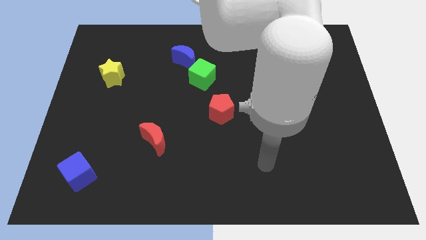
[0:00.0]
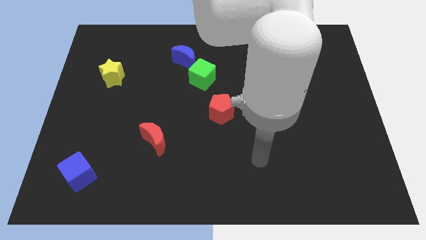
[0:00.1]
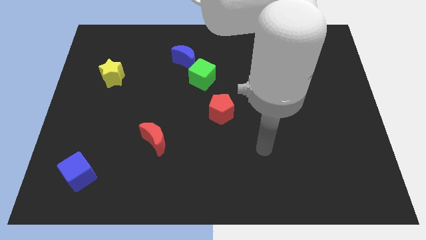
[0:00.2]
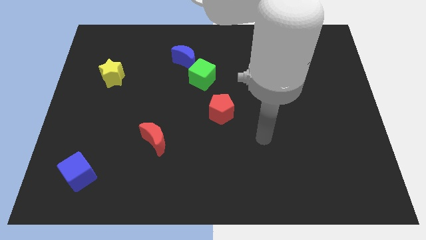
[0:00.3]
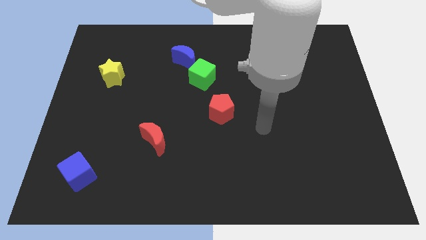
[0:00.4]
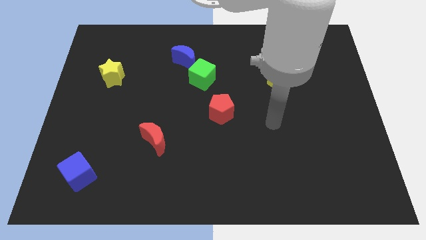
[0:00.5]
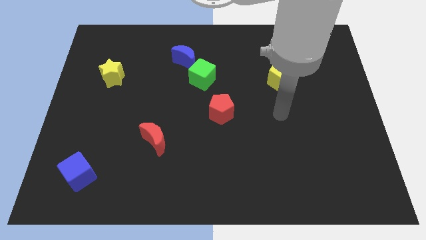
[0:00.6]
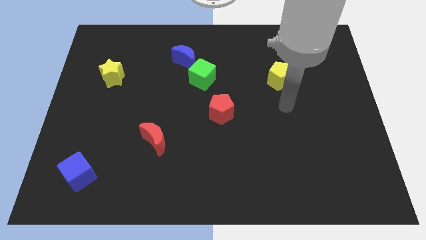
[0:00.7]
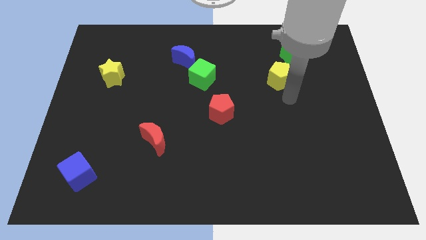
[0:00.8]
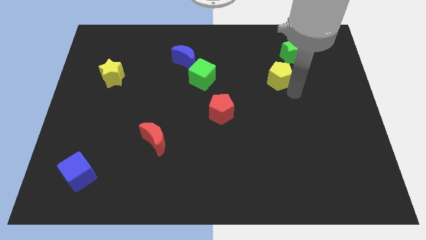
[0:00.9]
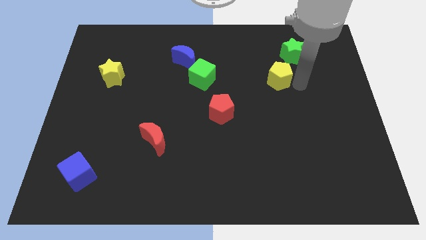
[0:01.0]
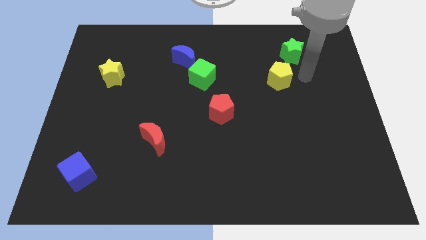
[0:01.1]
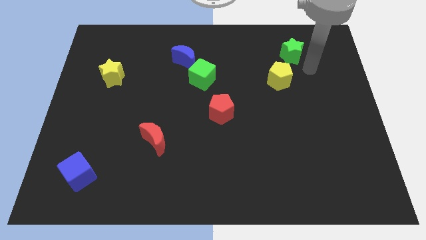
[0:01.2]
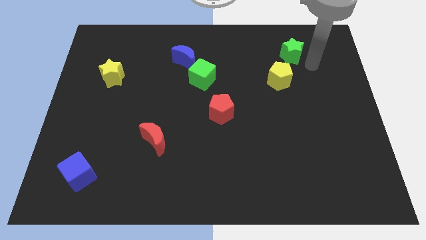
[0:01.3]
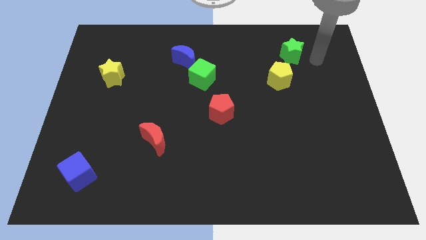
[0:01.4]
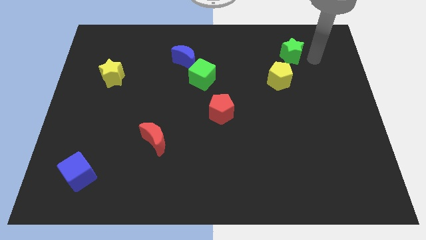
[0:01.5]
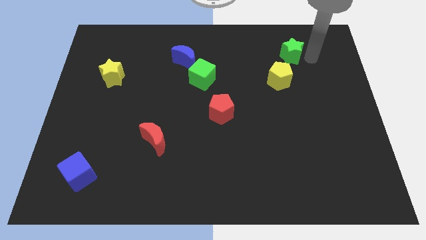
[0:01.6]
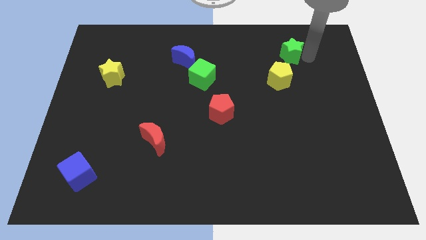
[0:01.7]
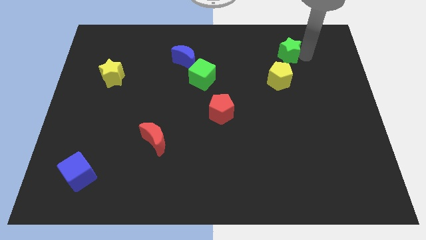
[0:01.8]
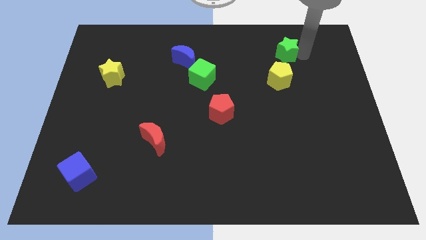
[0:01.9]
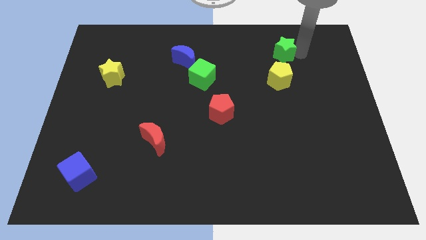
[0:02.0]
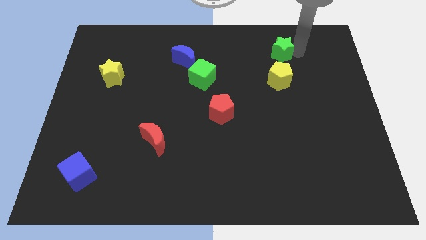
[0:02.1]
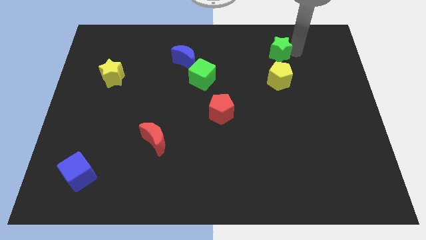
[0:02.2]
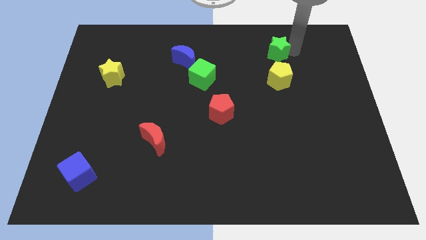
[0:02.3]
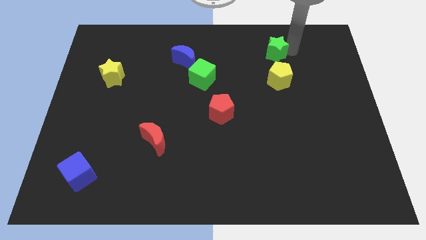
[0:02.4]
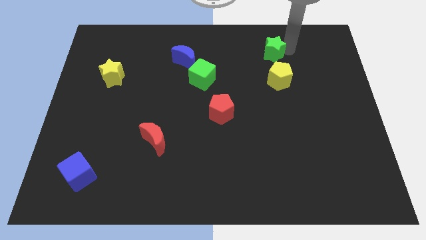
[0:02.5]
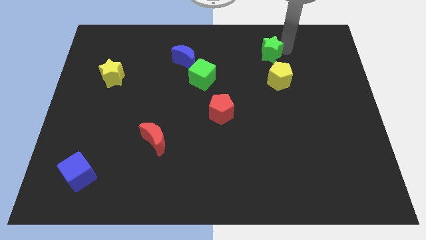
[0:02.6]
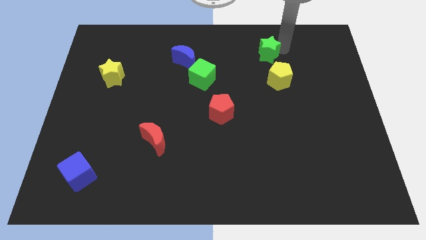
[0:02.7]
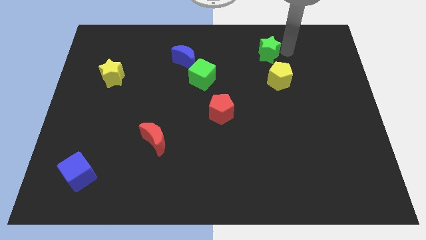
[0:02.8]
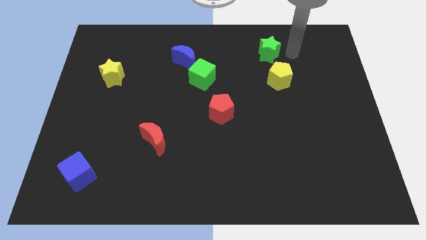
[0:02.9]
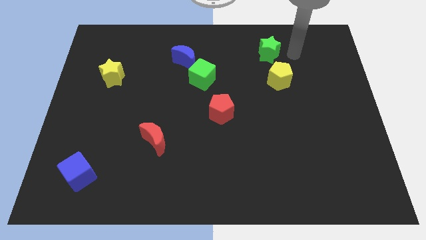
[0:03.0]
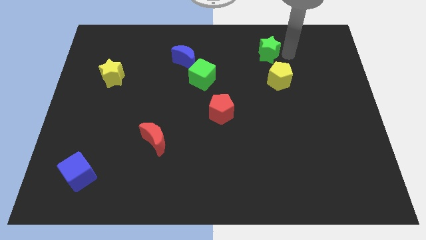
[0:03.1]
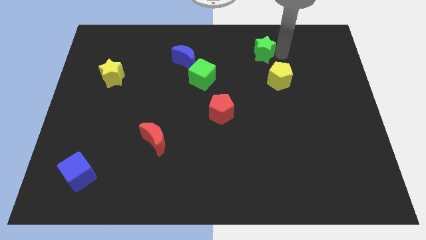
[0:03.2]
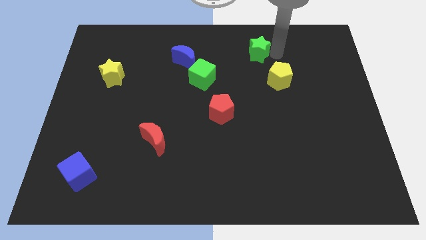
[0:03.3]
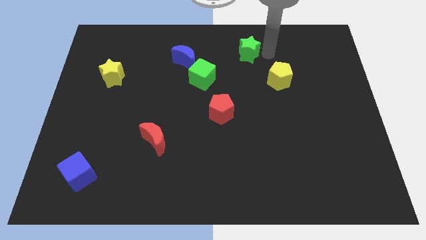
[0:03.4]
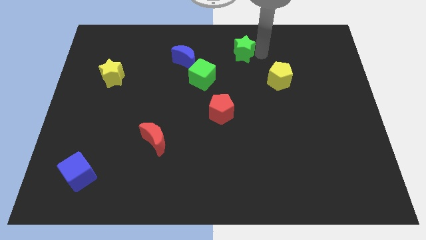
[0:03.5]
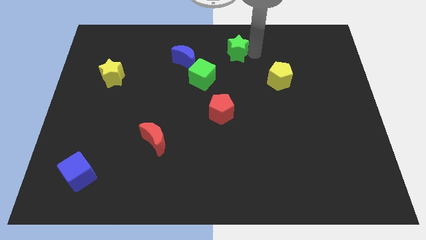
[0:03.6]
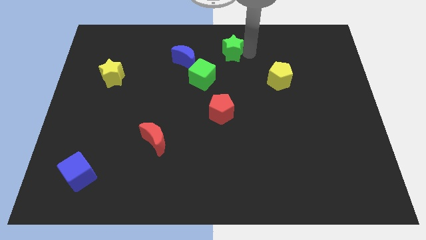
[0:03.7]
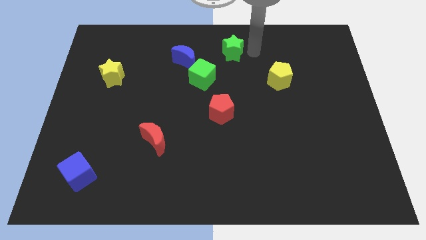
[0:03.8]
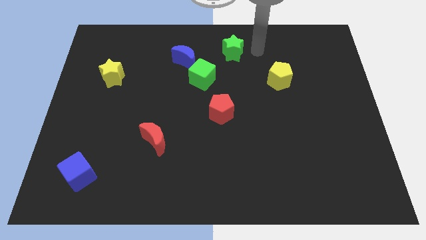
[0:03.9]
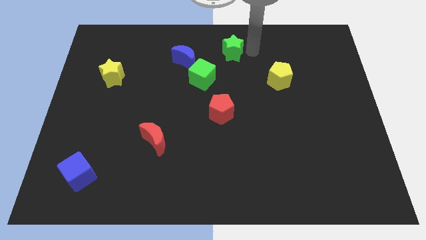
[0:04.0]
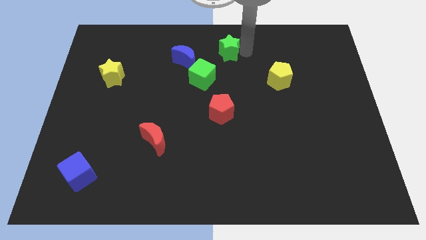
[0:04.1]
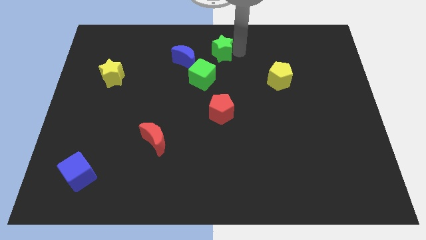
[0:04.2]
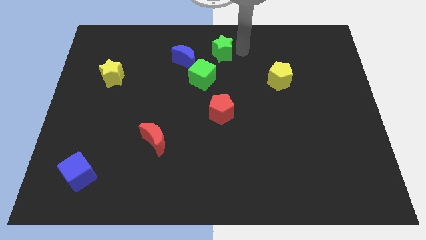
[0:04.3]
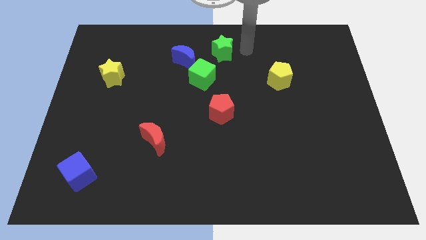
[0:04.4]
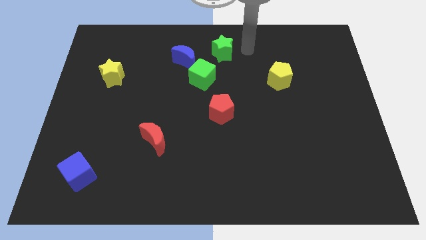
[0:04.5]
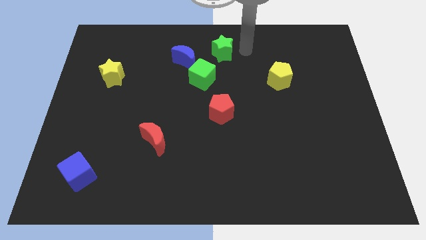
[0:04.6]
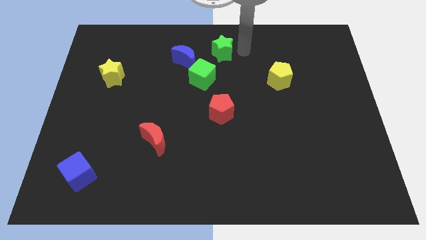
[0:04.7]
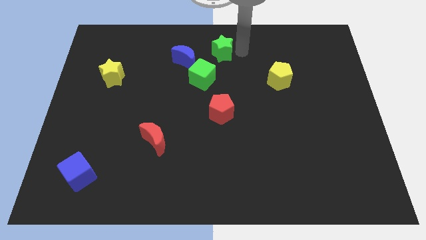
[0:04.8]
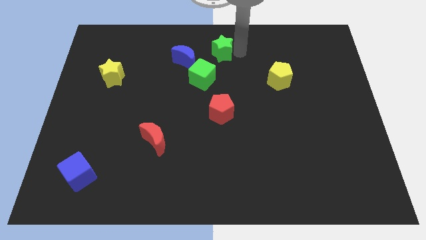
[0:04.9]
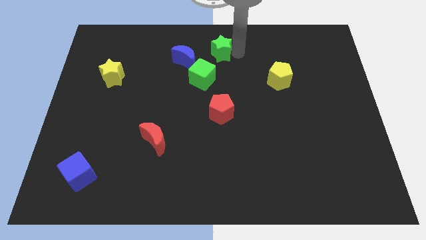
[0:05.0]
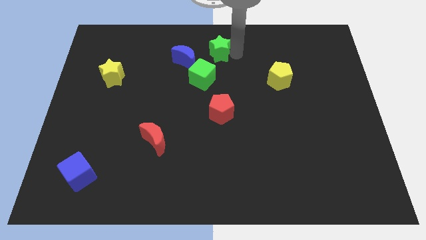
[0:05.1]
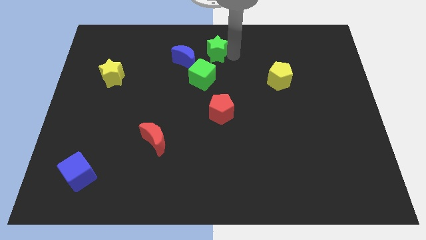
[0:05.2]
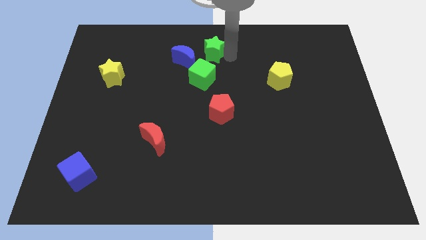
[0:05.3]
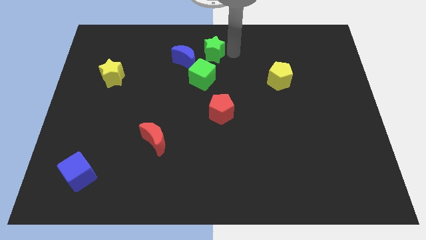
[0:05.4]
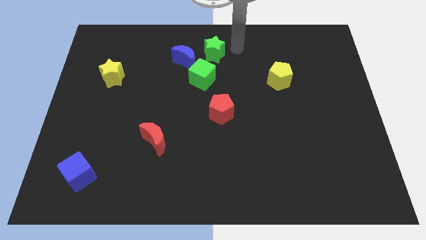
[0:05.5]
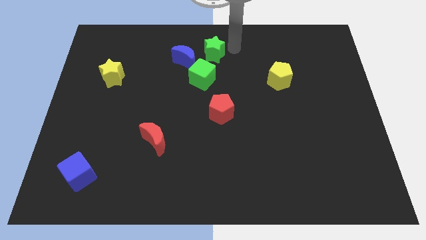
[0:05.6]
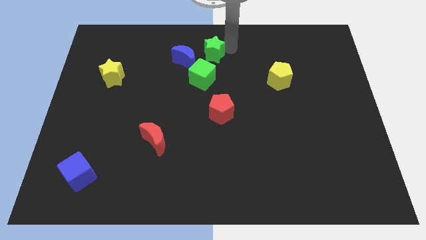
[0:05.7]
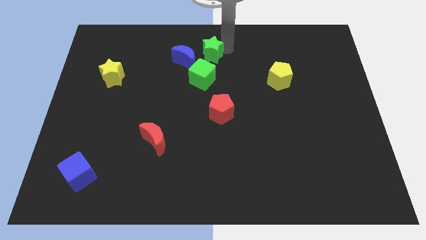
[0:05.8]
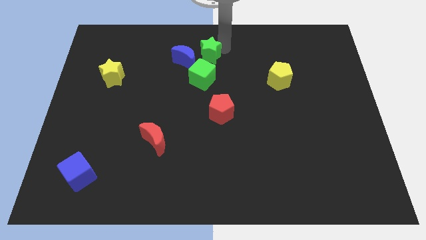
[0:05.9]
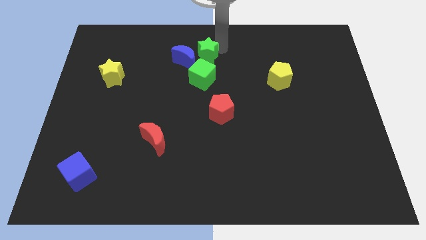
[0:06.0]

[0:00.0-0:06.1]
move the green star to the blue moon

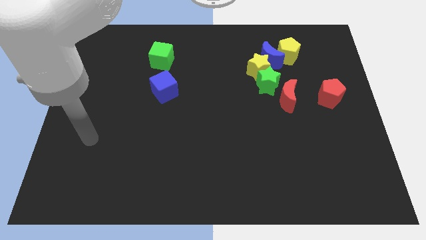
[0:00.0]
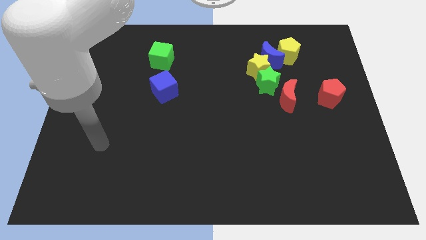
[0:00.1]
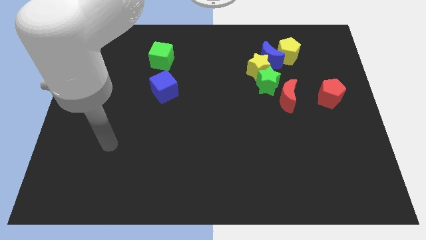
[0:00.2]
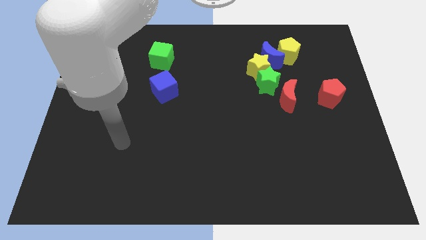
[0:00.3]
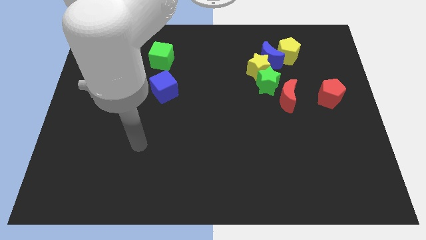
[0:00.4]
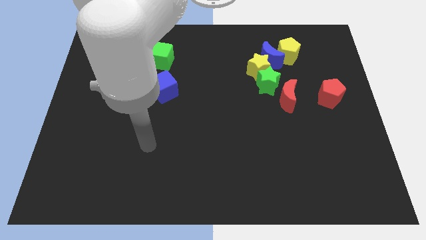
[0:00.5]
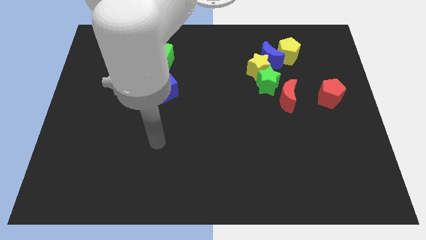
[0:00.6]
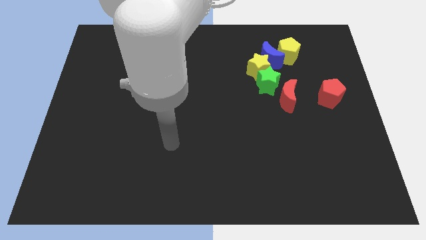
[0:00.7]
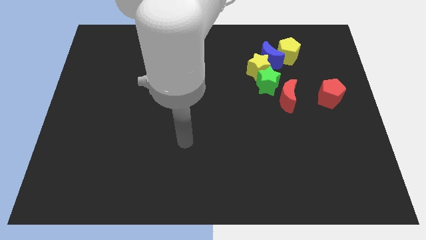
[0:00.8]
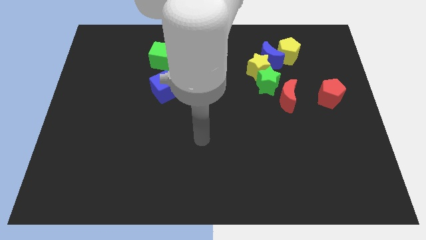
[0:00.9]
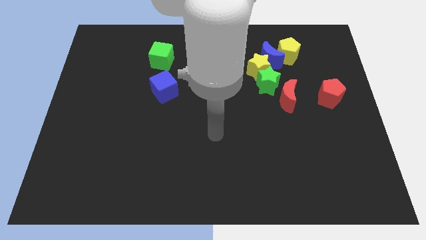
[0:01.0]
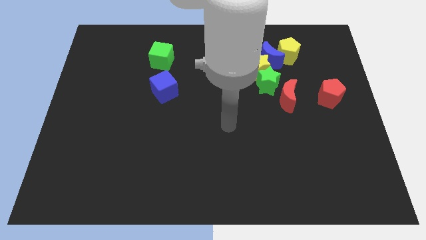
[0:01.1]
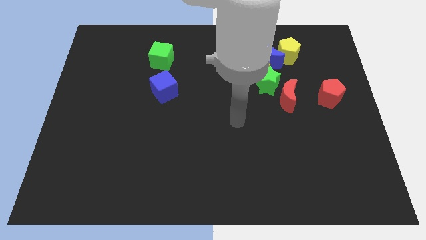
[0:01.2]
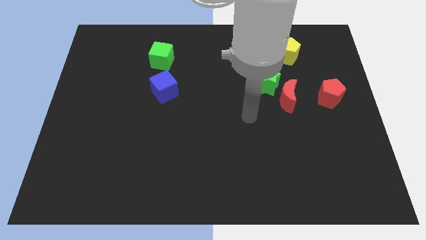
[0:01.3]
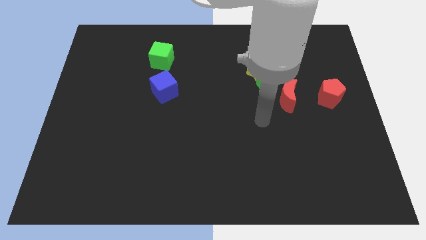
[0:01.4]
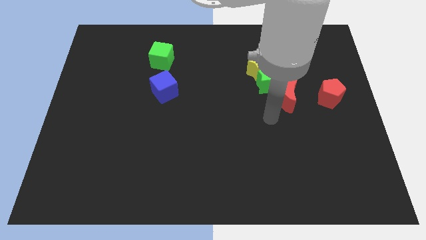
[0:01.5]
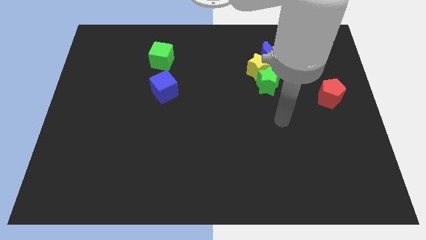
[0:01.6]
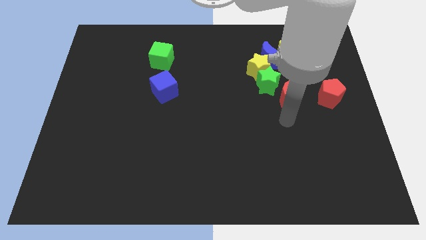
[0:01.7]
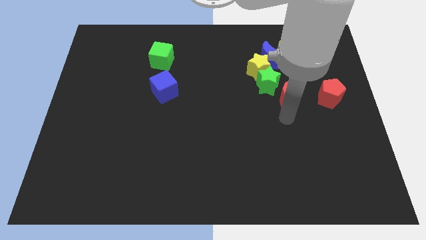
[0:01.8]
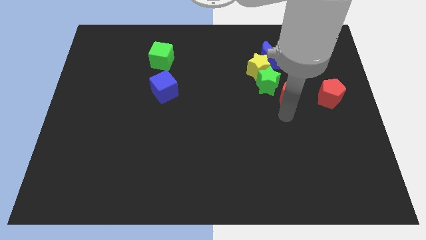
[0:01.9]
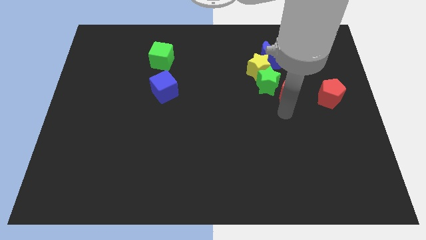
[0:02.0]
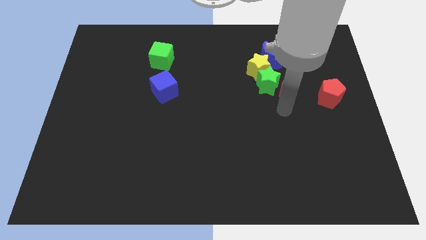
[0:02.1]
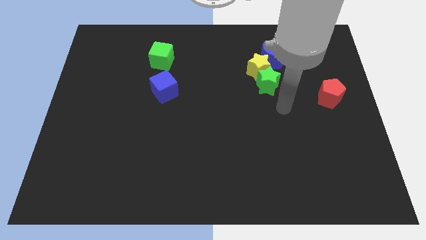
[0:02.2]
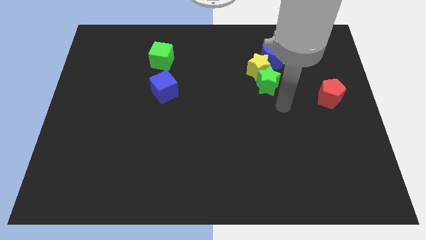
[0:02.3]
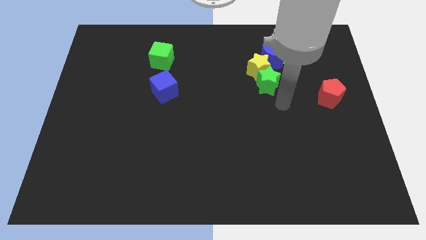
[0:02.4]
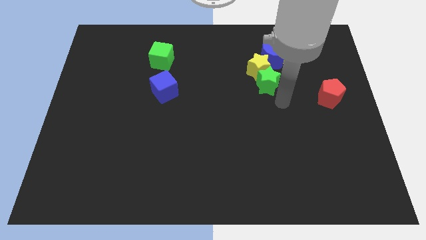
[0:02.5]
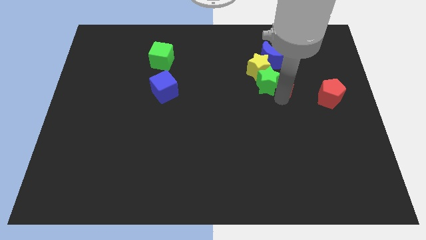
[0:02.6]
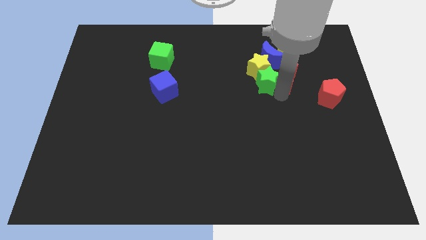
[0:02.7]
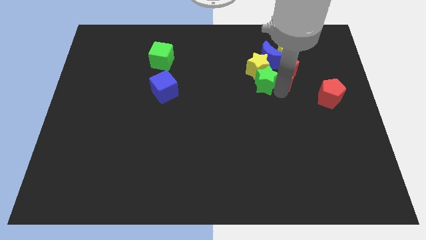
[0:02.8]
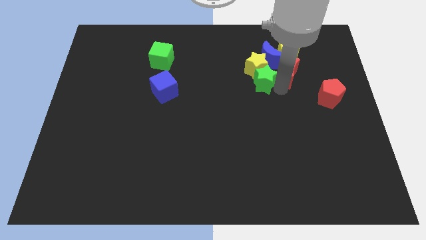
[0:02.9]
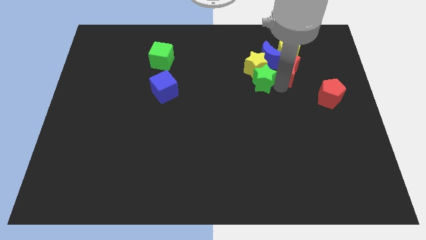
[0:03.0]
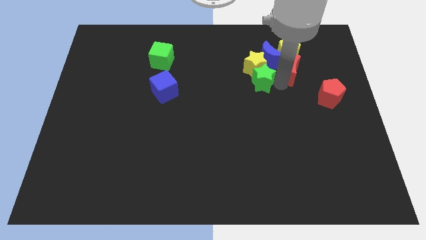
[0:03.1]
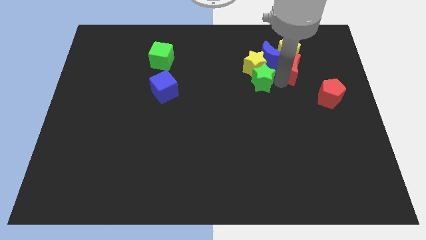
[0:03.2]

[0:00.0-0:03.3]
slide the red moon close to the yellow pentagon
